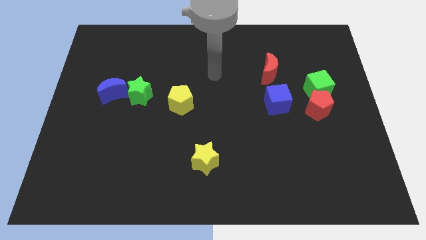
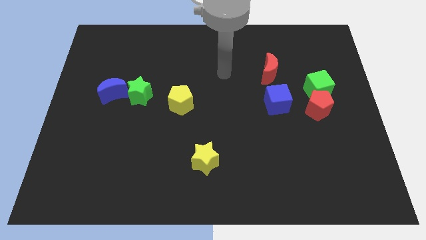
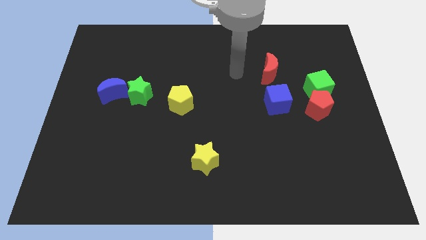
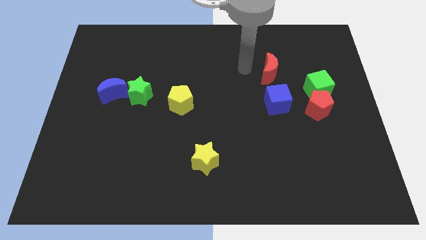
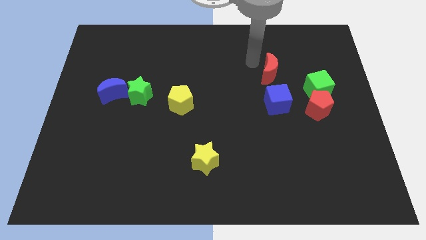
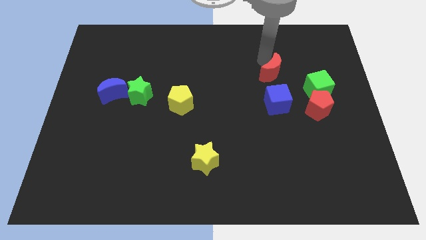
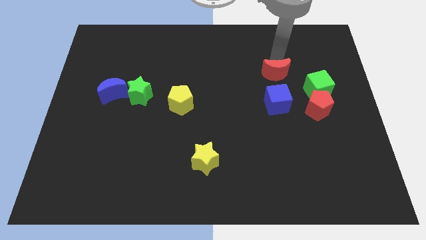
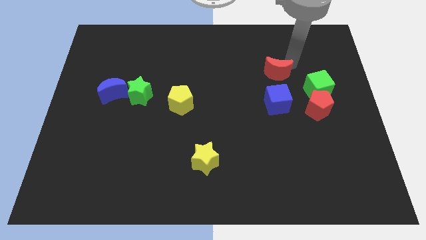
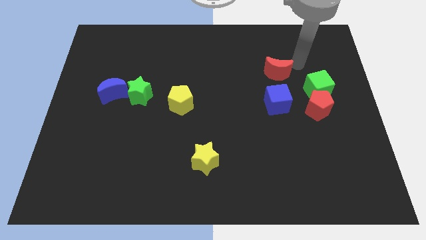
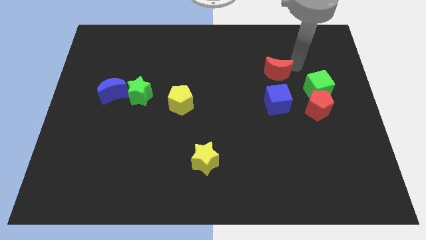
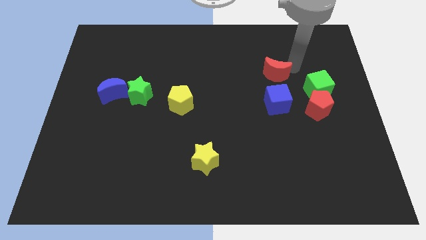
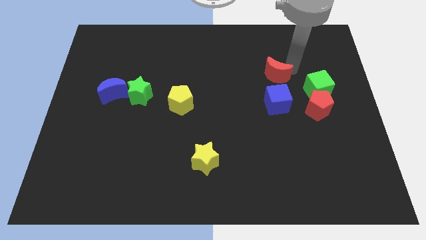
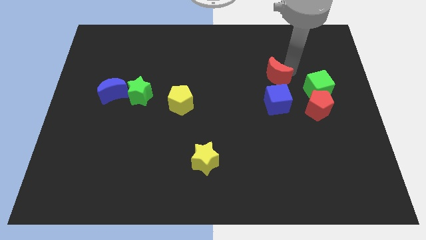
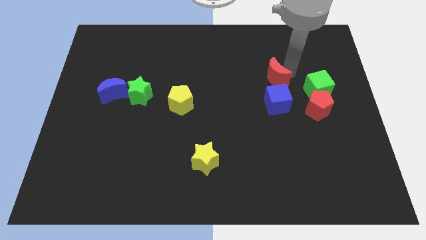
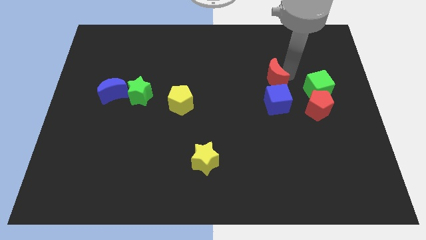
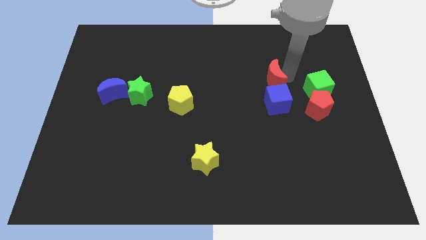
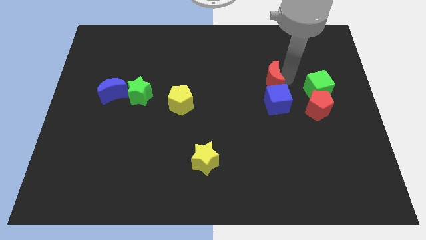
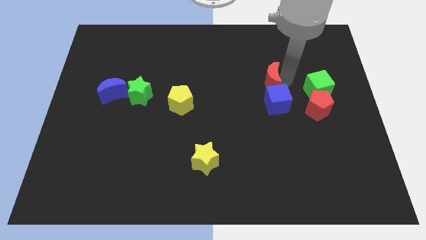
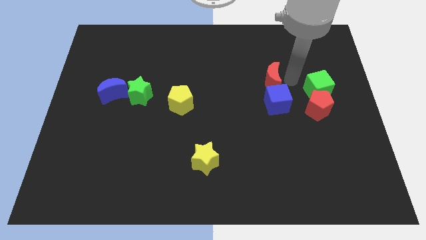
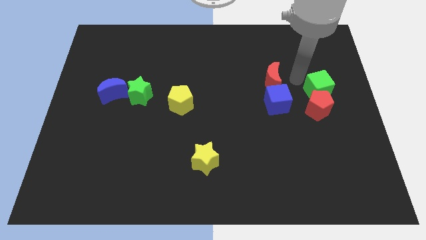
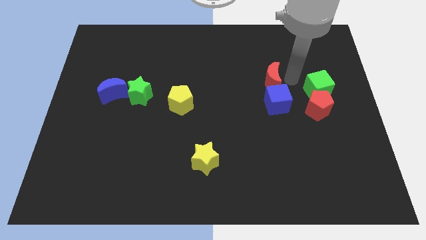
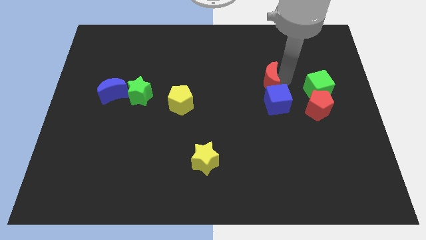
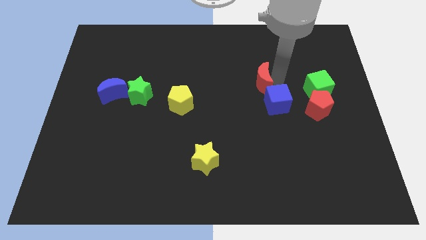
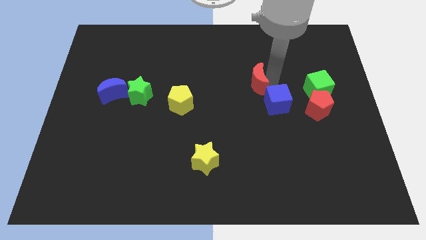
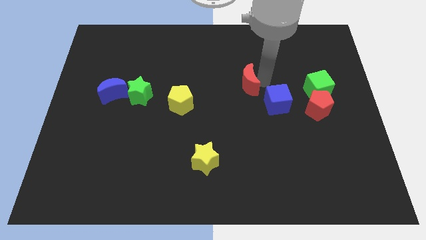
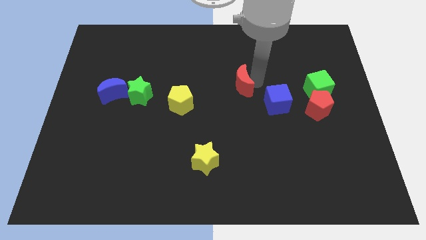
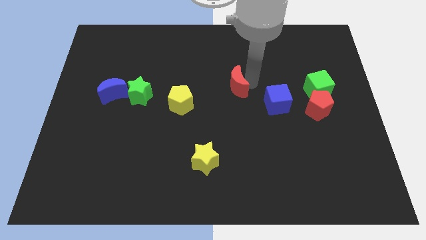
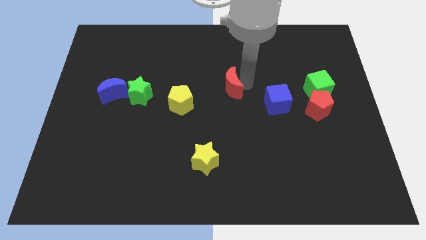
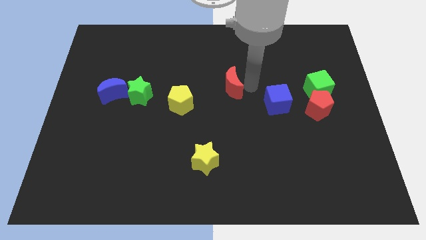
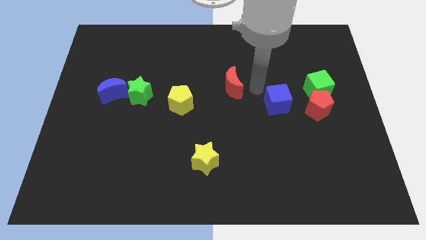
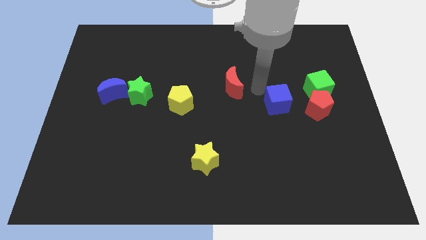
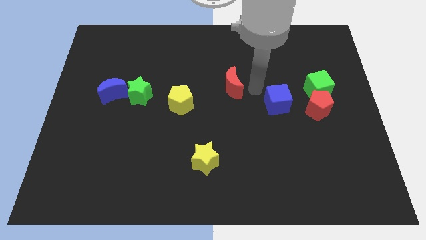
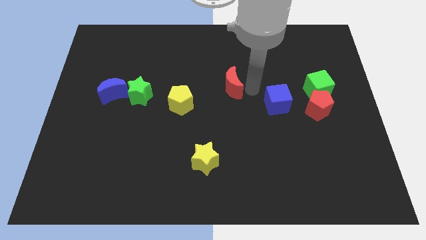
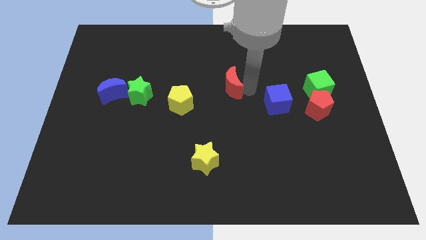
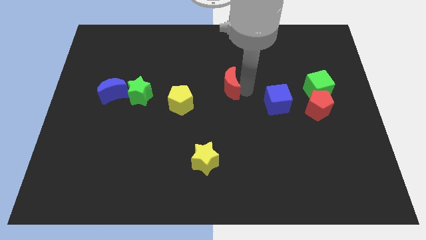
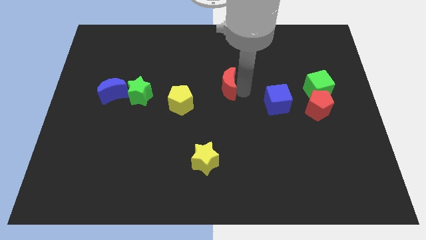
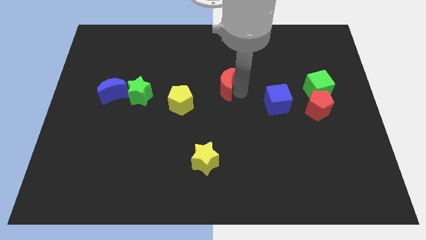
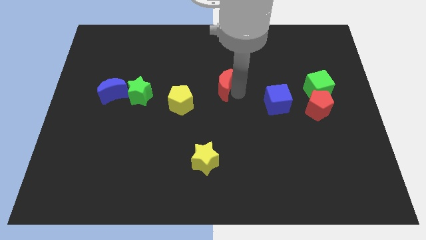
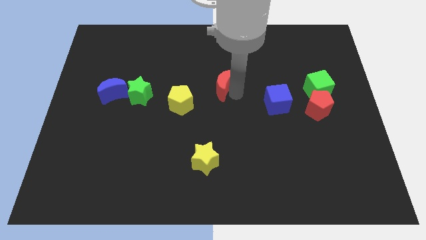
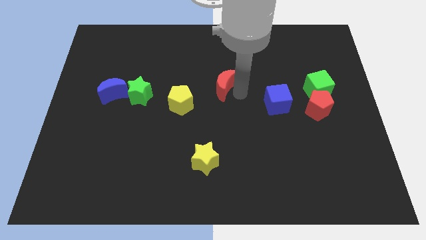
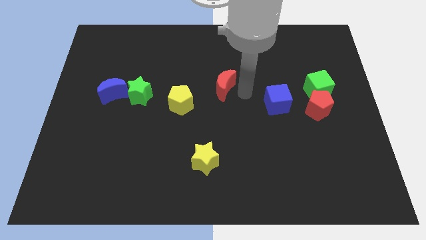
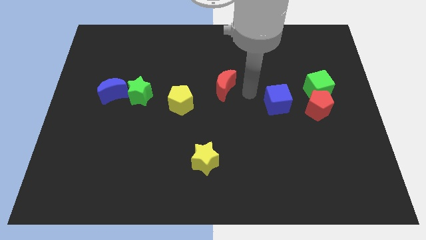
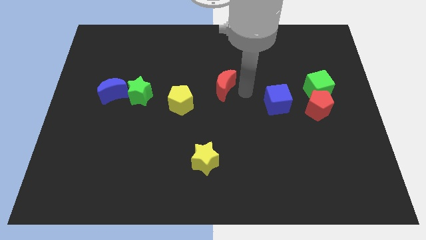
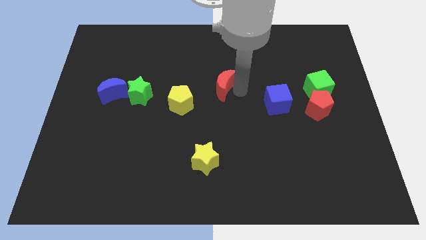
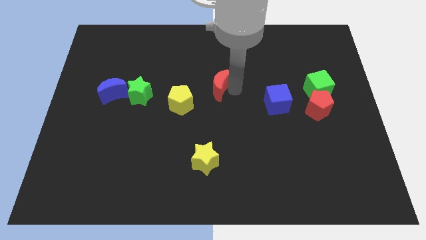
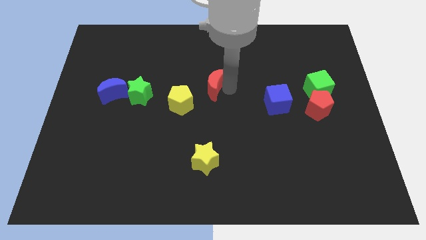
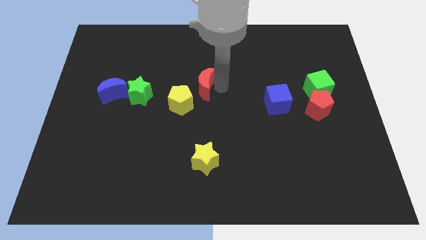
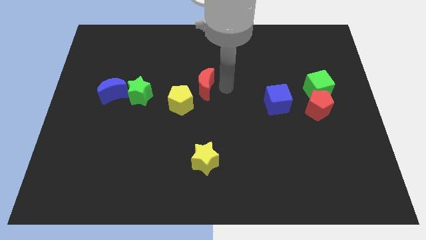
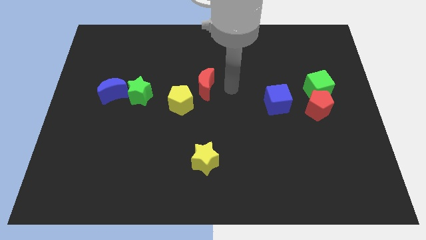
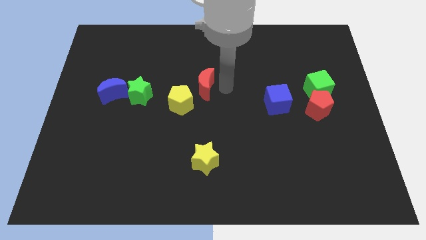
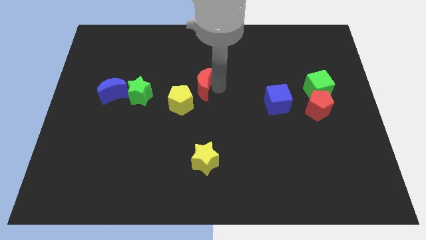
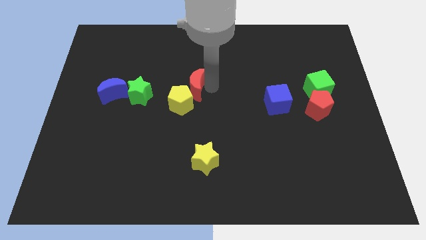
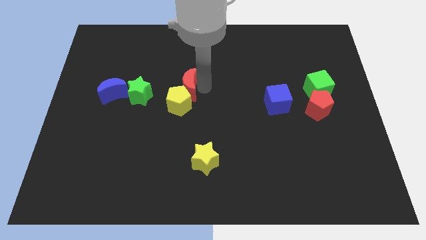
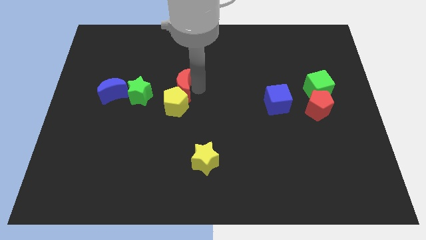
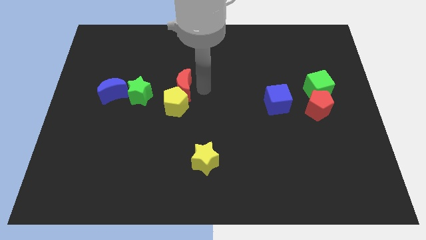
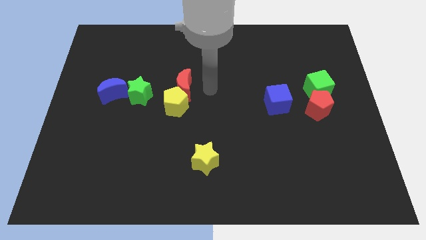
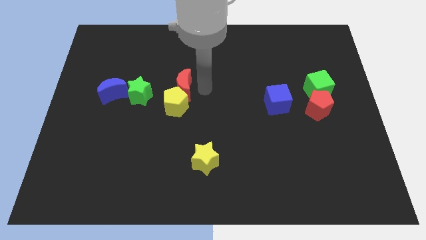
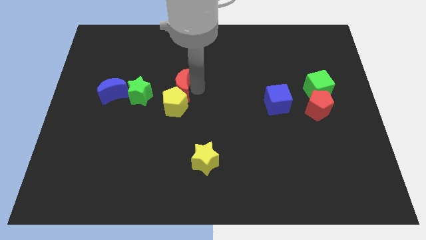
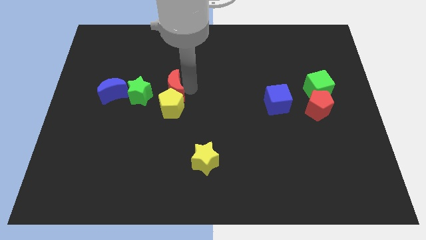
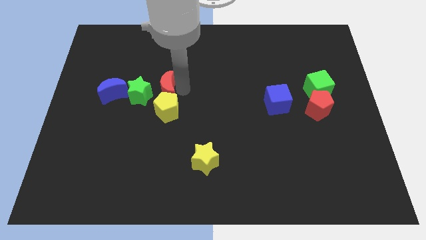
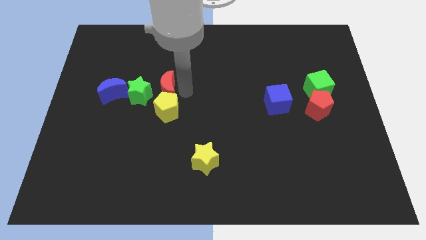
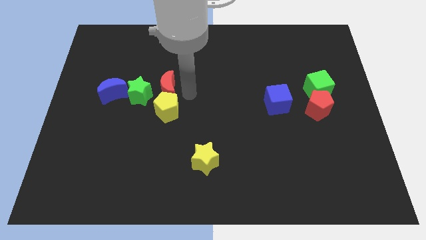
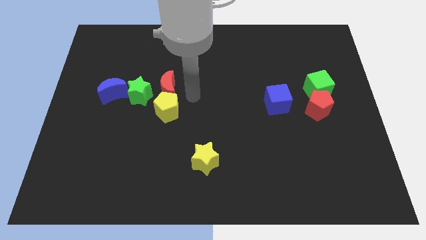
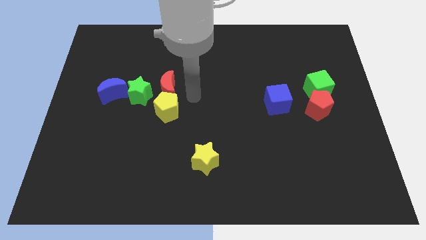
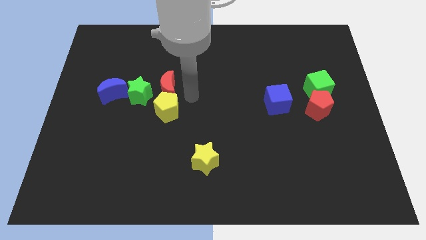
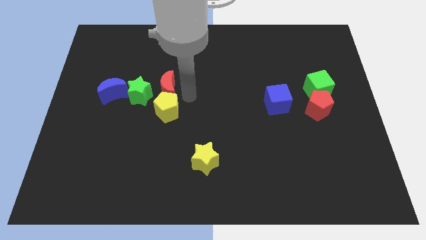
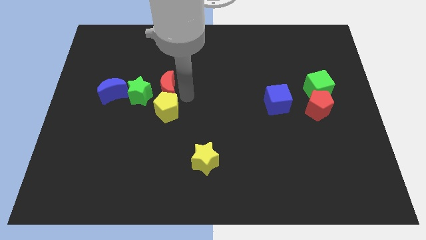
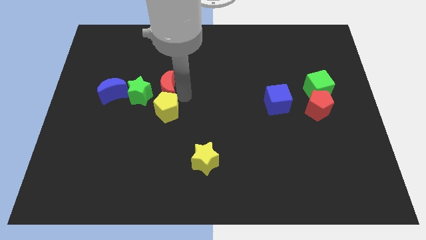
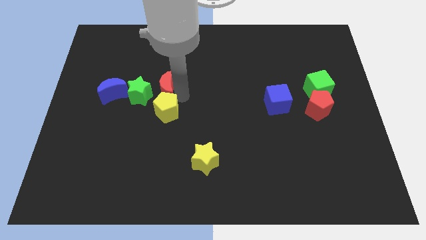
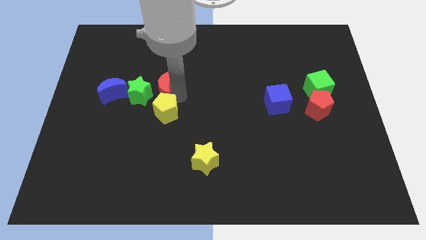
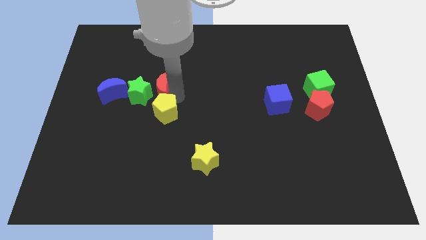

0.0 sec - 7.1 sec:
move the red moon towards the green star
